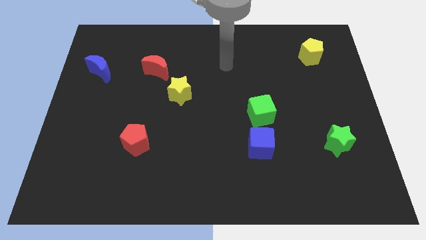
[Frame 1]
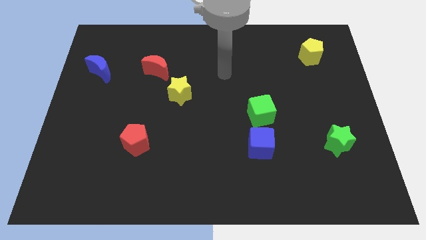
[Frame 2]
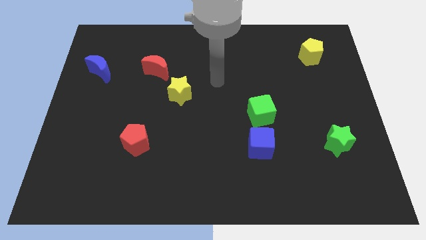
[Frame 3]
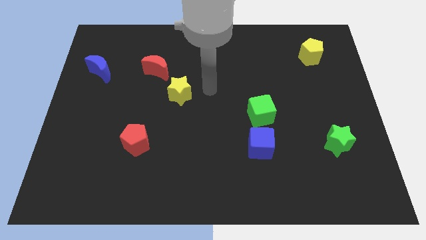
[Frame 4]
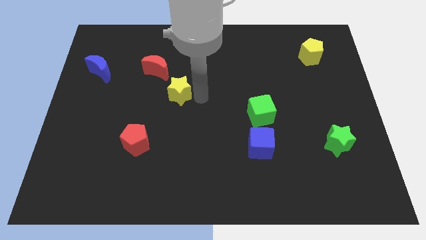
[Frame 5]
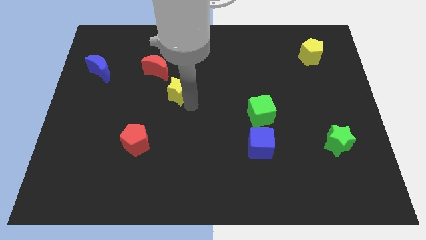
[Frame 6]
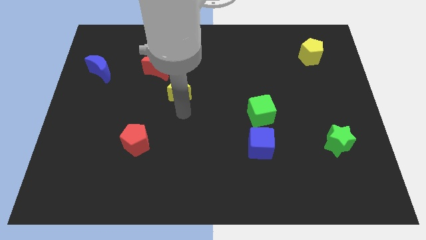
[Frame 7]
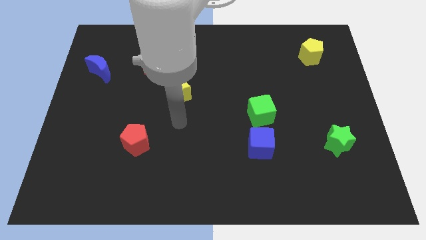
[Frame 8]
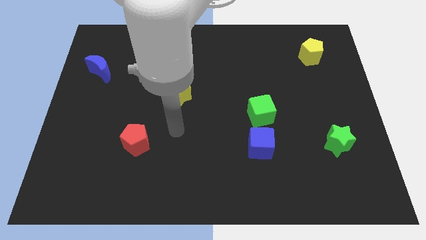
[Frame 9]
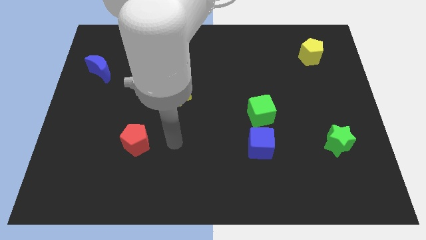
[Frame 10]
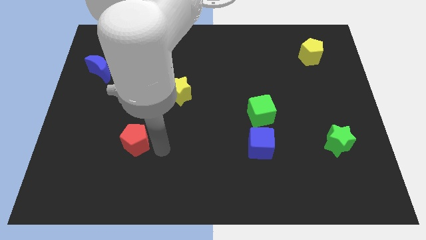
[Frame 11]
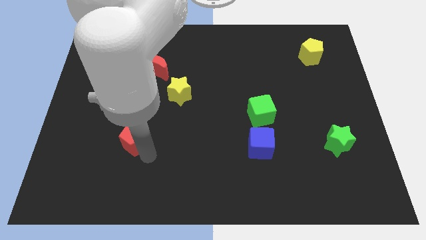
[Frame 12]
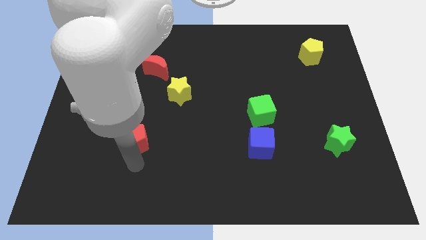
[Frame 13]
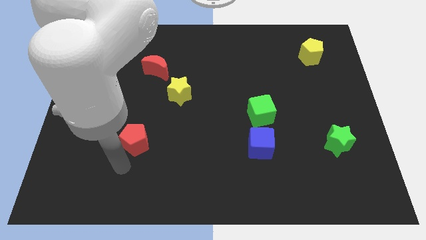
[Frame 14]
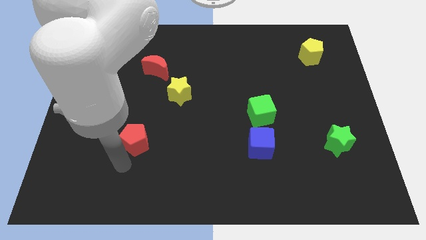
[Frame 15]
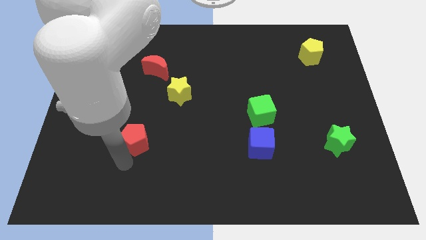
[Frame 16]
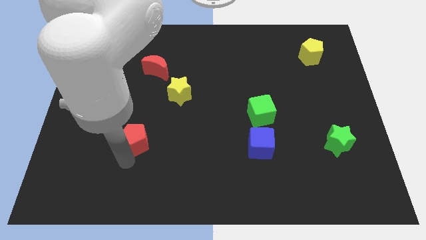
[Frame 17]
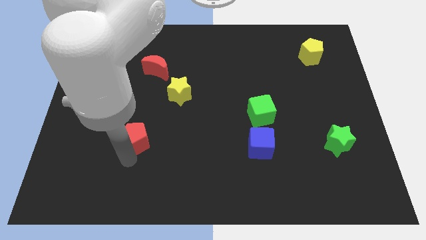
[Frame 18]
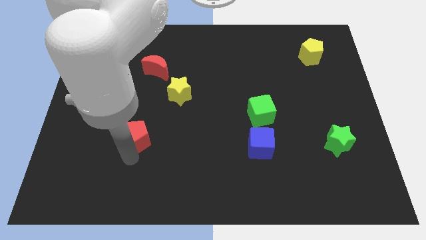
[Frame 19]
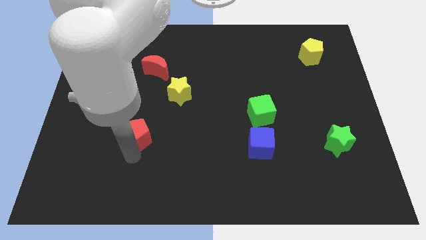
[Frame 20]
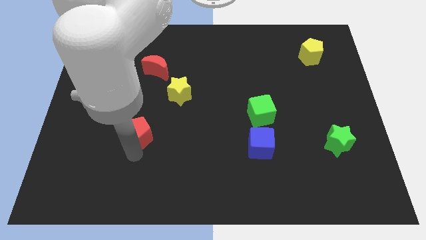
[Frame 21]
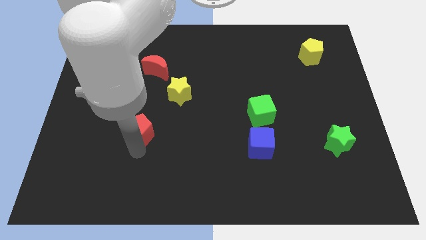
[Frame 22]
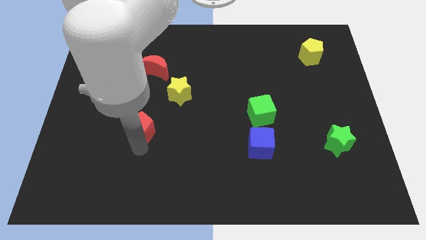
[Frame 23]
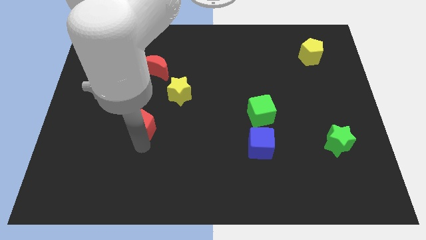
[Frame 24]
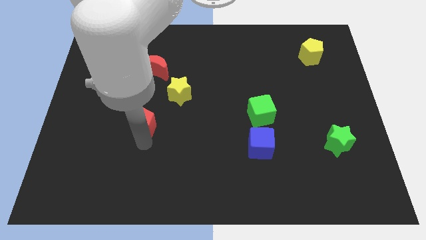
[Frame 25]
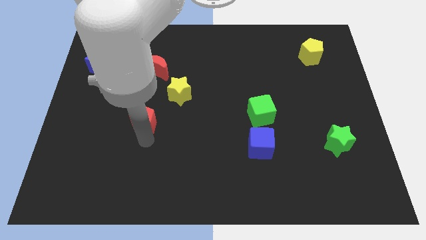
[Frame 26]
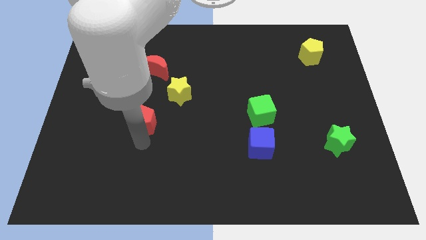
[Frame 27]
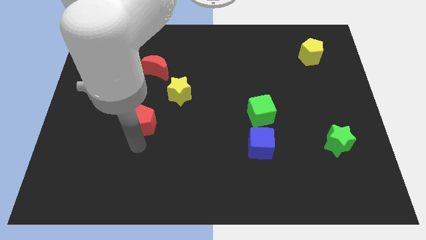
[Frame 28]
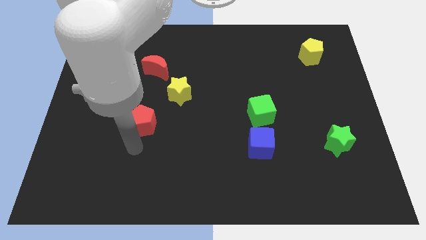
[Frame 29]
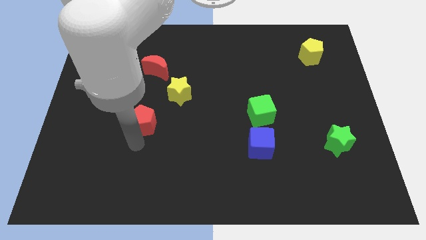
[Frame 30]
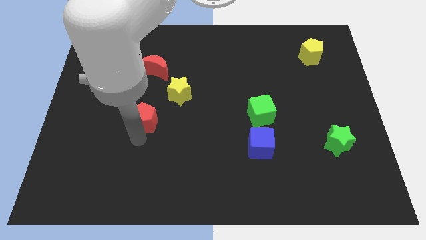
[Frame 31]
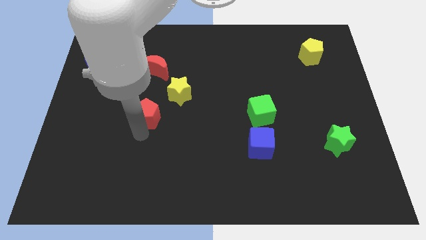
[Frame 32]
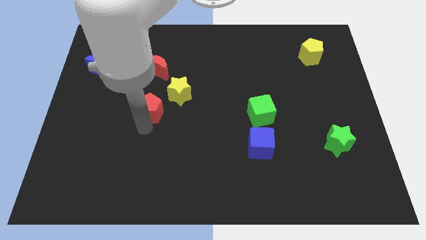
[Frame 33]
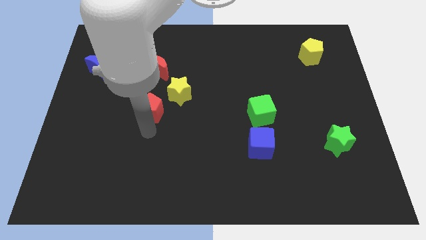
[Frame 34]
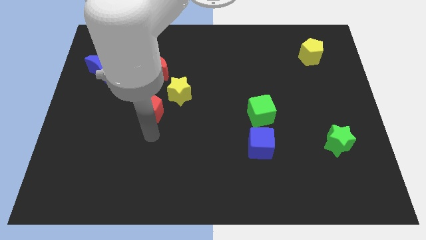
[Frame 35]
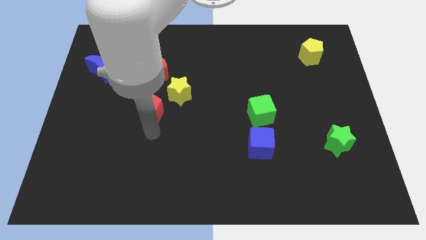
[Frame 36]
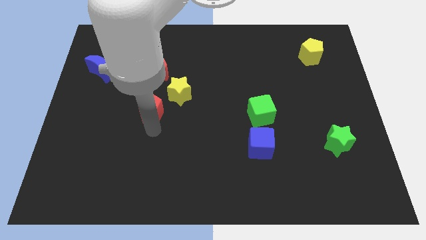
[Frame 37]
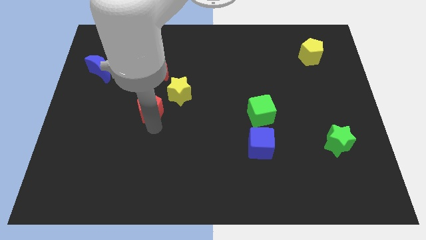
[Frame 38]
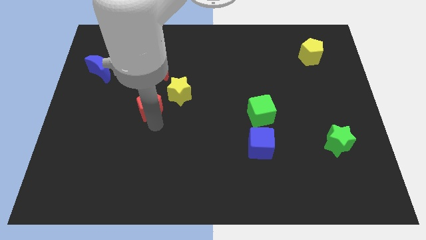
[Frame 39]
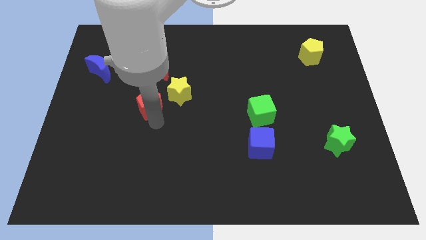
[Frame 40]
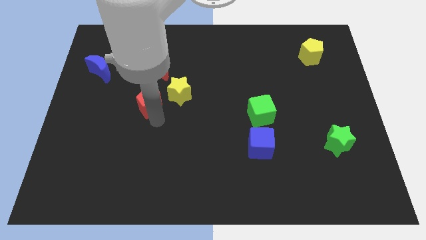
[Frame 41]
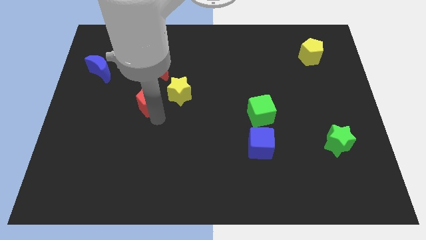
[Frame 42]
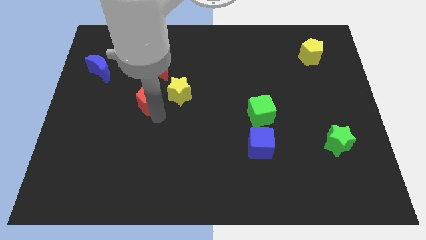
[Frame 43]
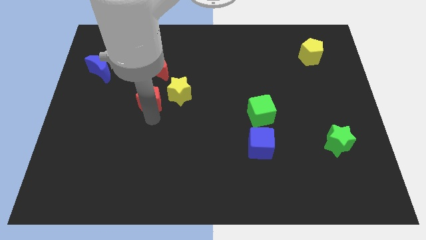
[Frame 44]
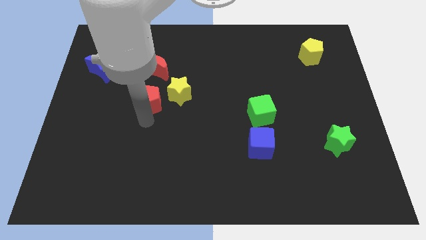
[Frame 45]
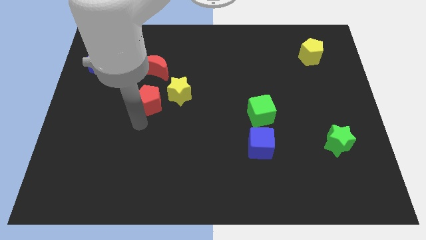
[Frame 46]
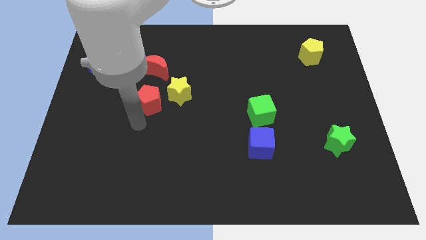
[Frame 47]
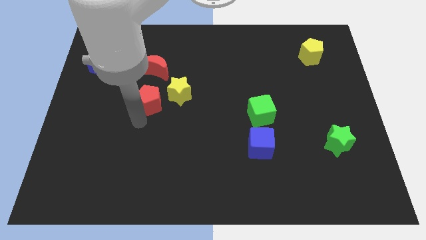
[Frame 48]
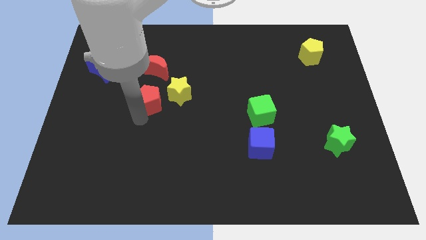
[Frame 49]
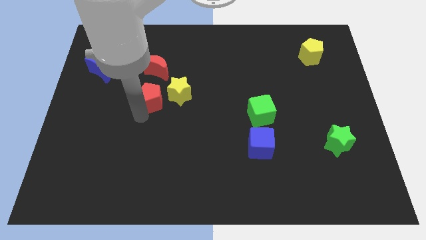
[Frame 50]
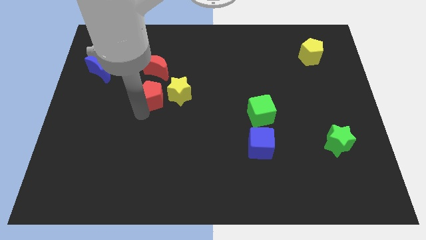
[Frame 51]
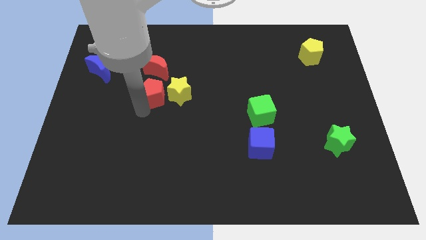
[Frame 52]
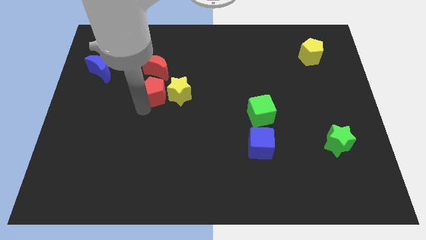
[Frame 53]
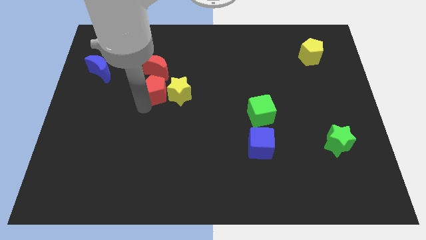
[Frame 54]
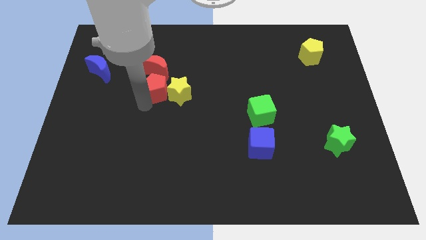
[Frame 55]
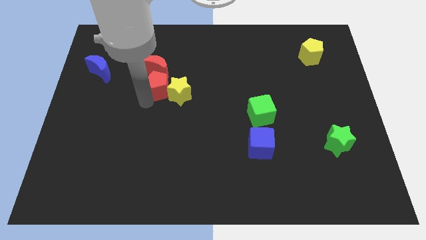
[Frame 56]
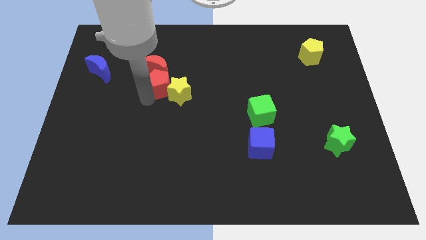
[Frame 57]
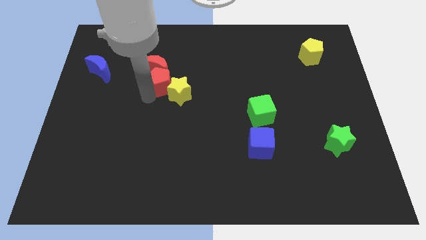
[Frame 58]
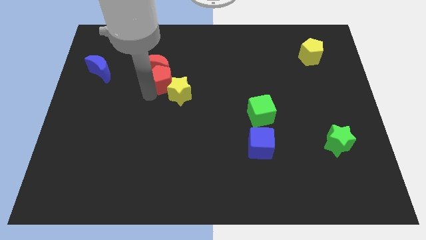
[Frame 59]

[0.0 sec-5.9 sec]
push the red pentagon to the top of the yellow star
